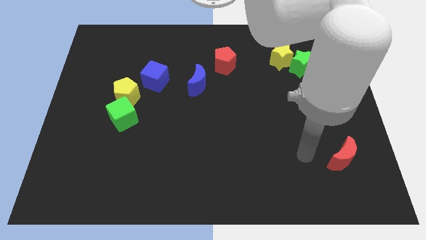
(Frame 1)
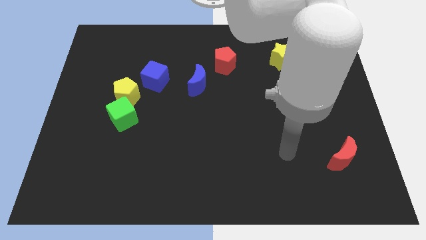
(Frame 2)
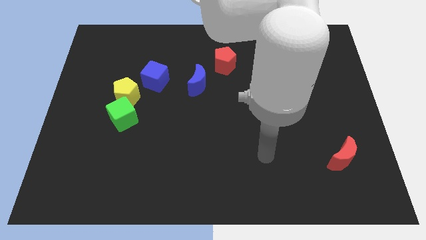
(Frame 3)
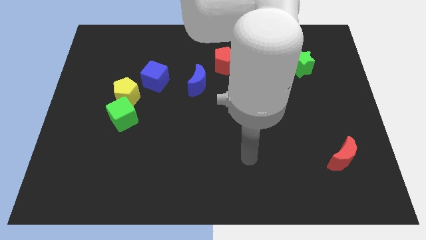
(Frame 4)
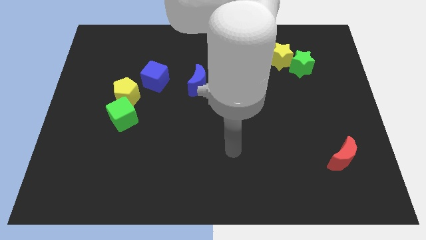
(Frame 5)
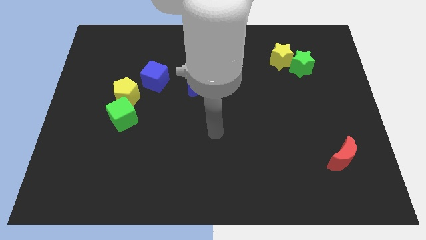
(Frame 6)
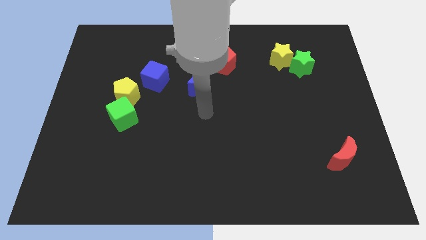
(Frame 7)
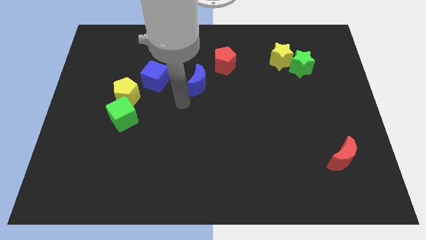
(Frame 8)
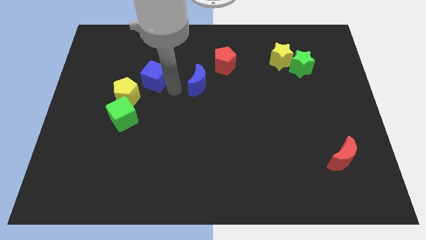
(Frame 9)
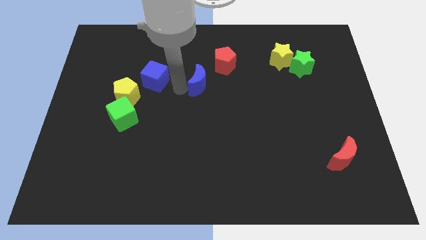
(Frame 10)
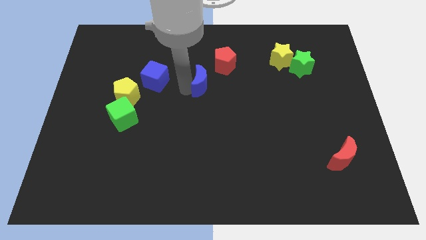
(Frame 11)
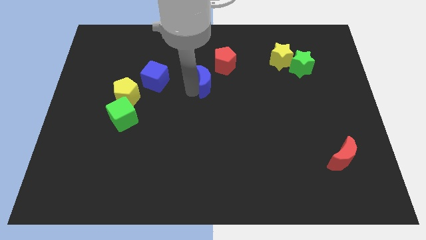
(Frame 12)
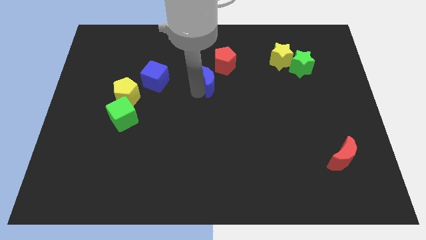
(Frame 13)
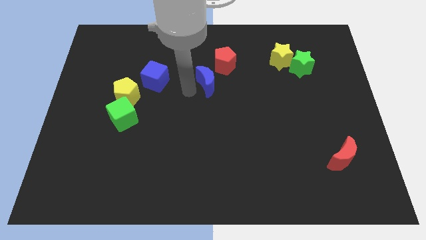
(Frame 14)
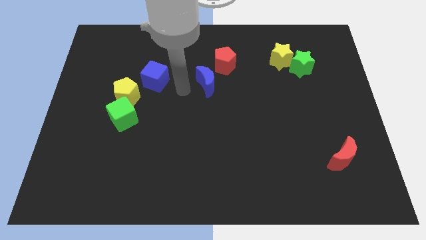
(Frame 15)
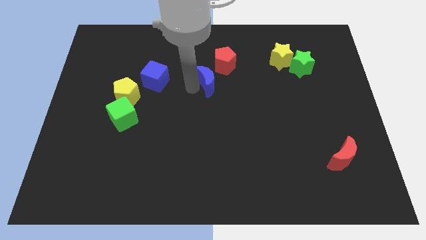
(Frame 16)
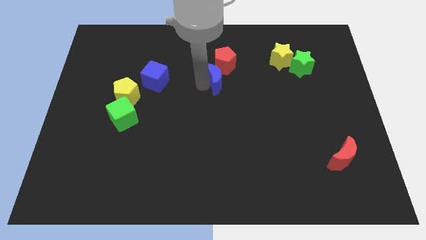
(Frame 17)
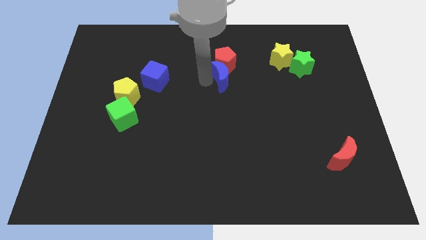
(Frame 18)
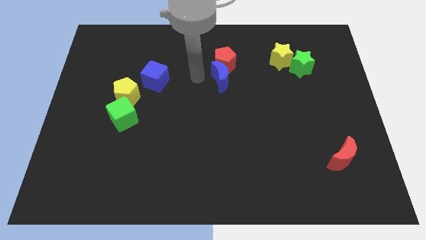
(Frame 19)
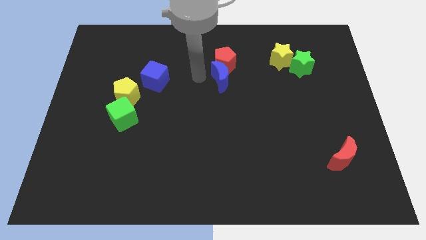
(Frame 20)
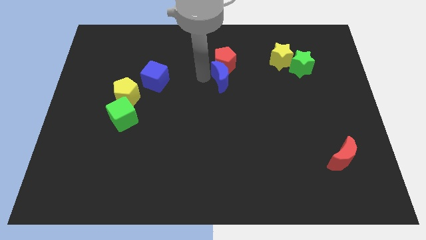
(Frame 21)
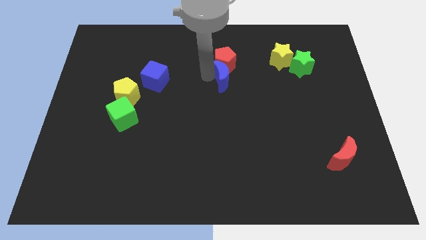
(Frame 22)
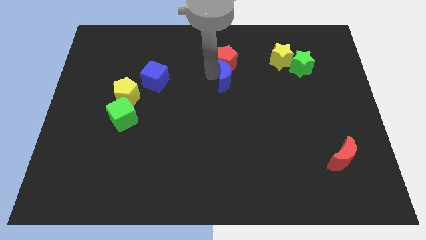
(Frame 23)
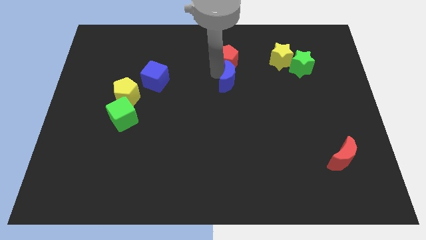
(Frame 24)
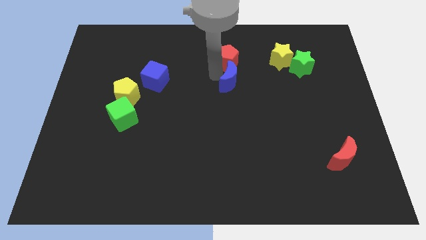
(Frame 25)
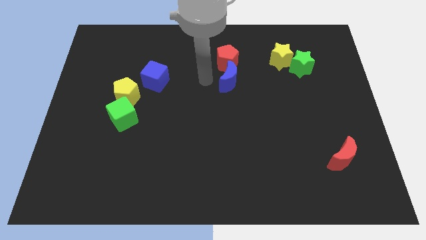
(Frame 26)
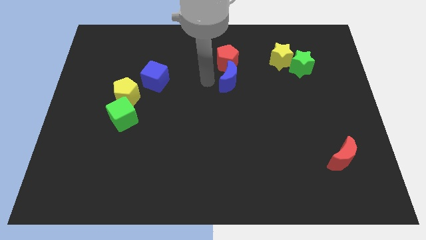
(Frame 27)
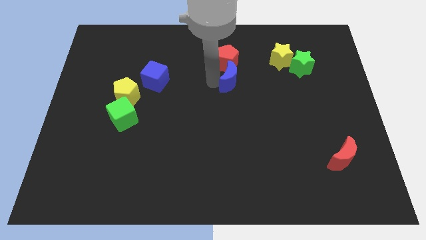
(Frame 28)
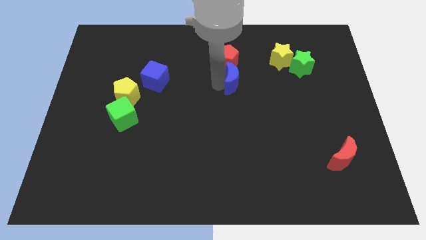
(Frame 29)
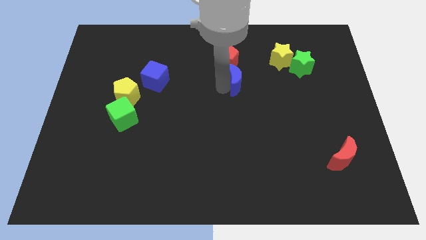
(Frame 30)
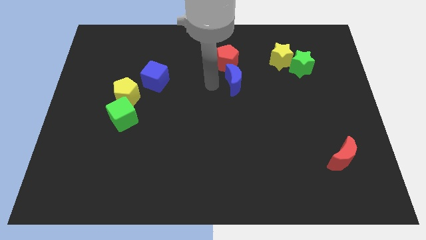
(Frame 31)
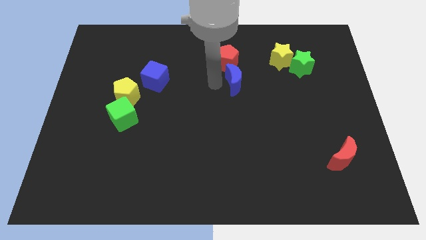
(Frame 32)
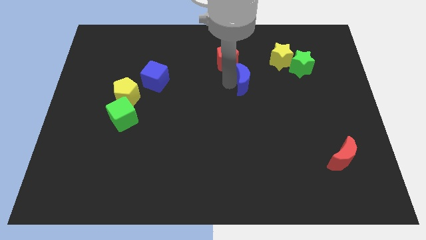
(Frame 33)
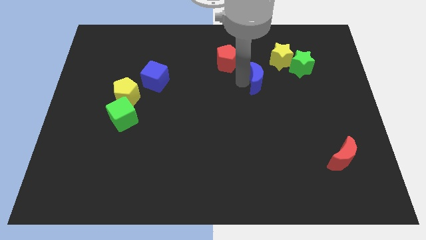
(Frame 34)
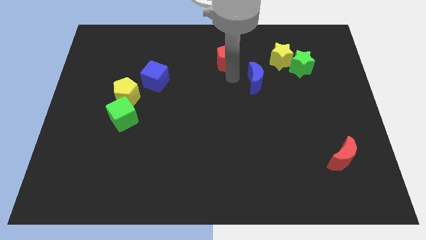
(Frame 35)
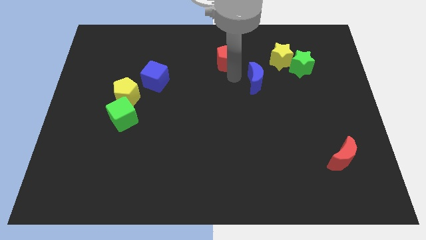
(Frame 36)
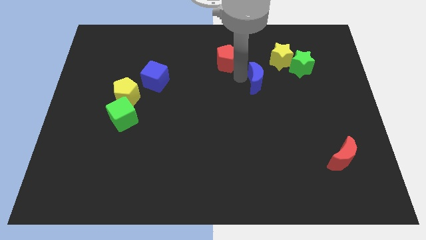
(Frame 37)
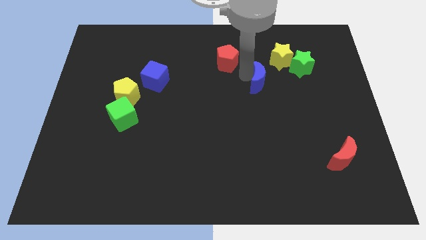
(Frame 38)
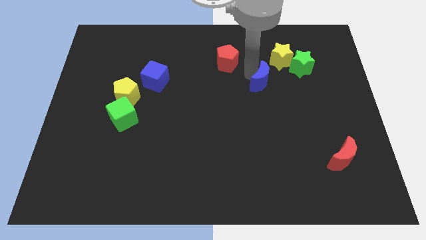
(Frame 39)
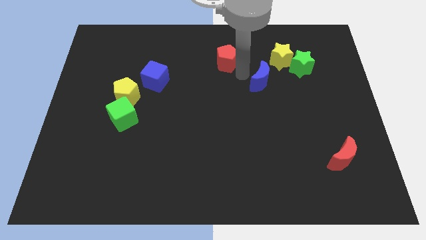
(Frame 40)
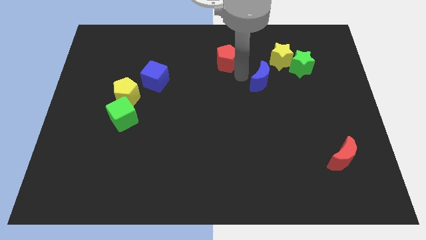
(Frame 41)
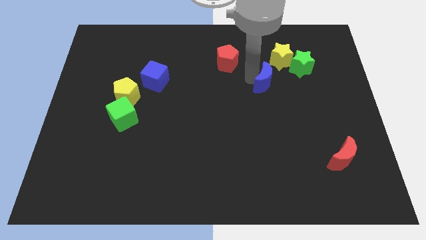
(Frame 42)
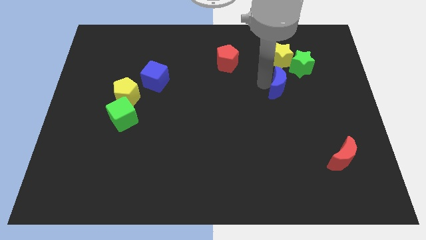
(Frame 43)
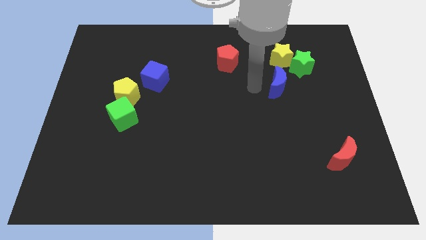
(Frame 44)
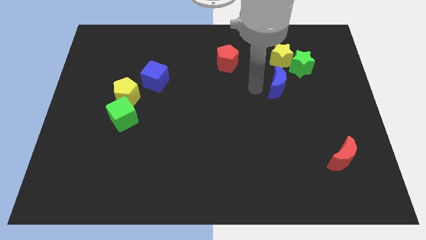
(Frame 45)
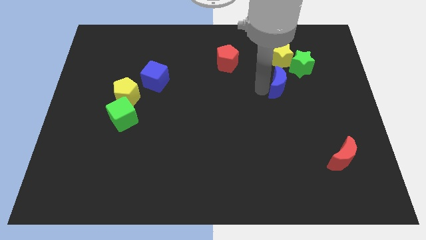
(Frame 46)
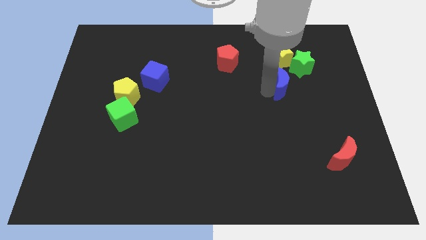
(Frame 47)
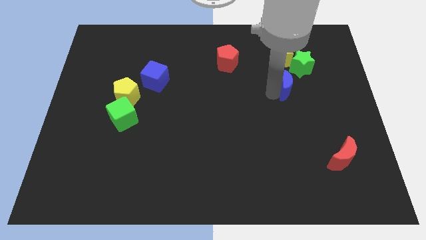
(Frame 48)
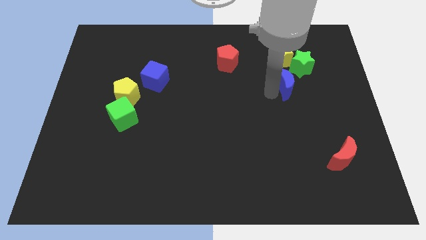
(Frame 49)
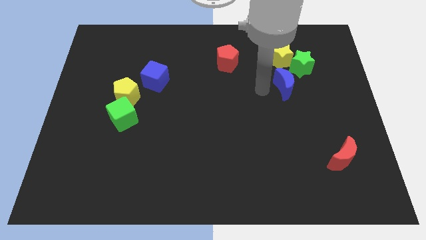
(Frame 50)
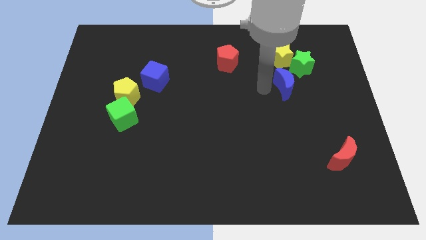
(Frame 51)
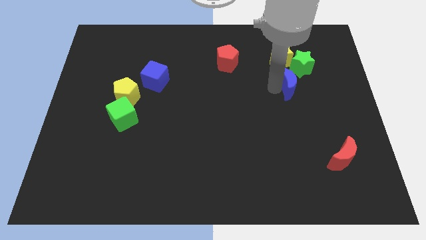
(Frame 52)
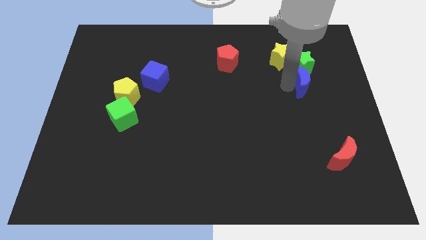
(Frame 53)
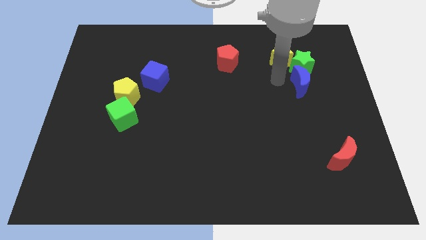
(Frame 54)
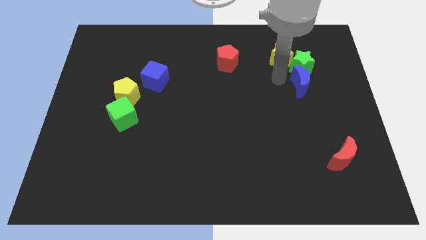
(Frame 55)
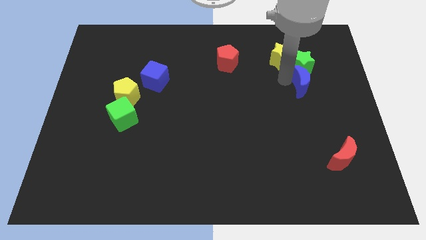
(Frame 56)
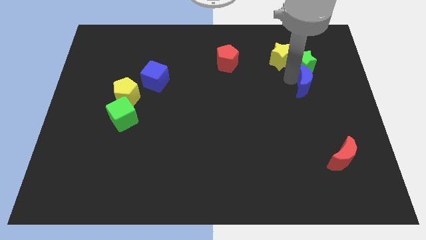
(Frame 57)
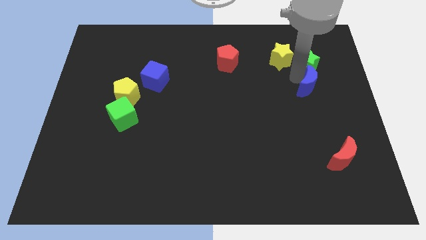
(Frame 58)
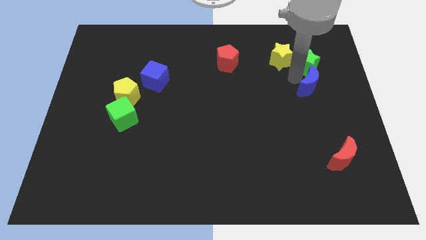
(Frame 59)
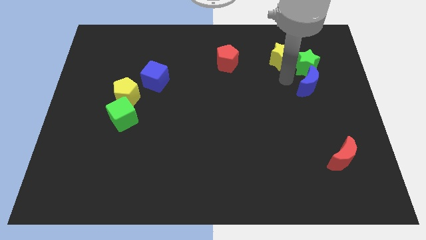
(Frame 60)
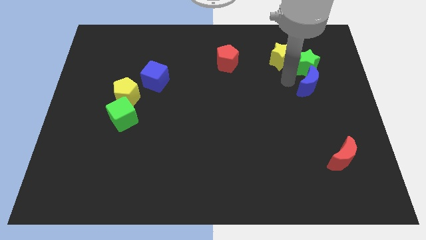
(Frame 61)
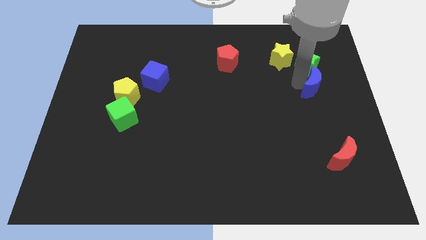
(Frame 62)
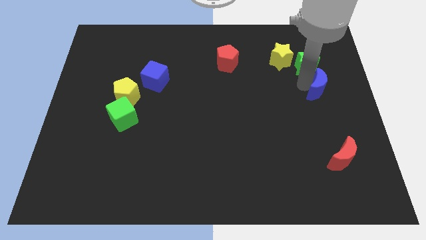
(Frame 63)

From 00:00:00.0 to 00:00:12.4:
move the blue moon to the right side of the board

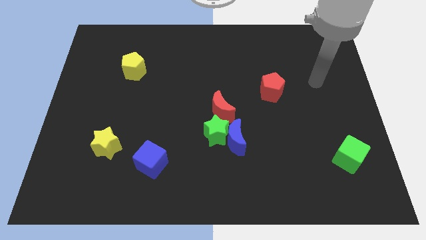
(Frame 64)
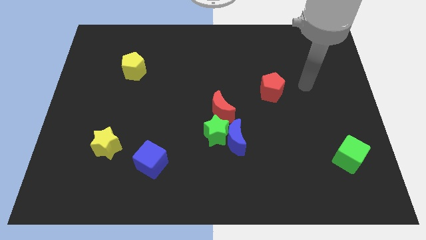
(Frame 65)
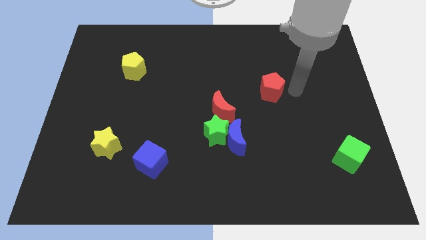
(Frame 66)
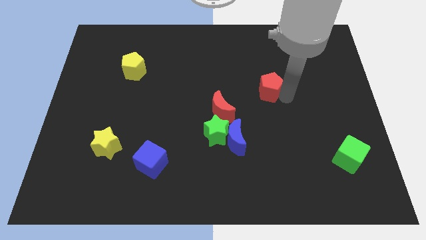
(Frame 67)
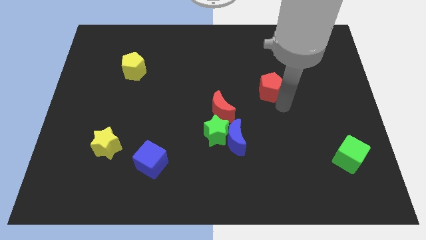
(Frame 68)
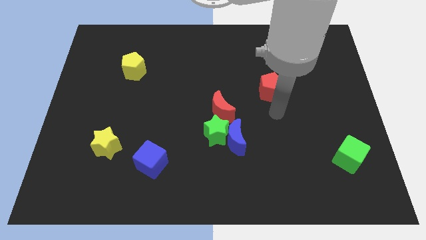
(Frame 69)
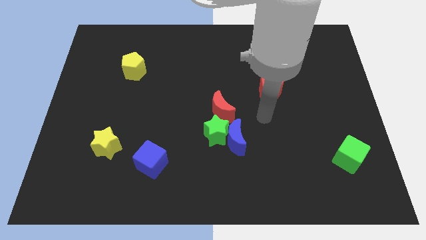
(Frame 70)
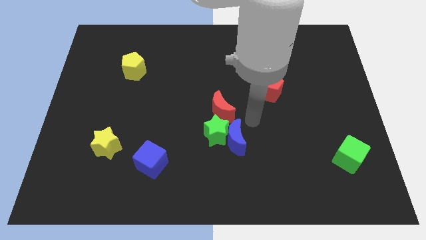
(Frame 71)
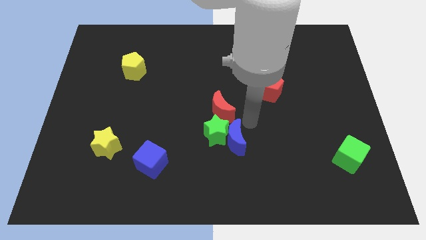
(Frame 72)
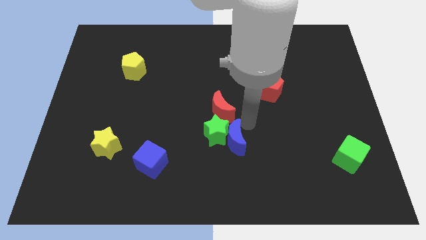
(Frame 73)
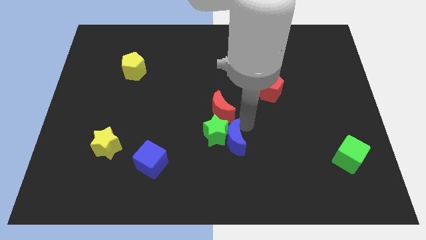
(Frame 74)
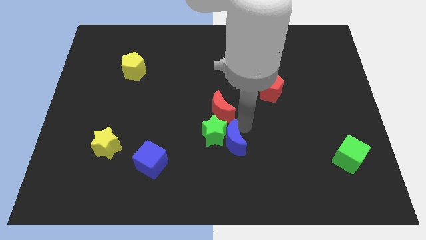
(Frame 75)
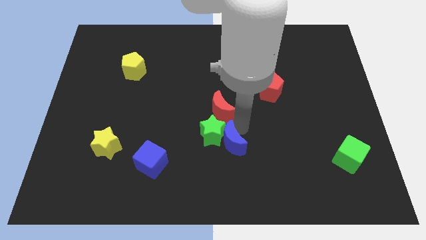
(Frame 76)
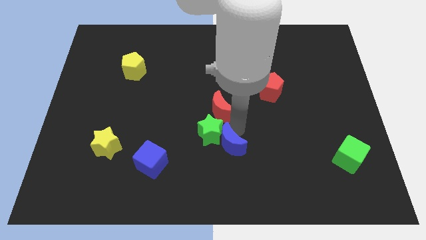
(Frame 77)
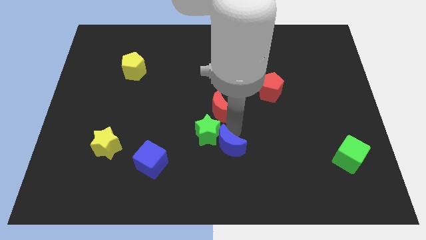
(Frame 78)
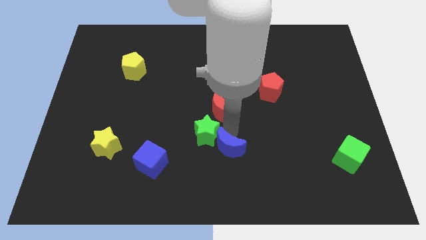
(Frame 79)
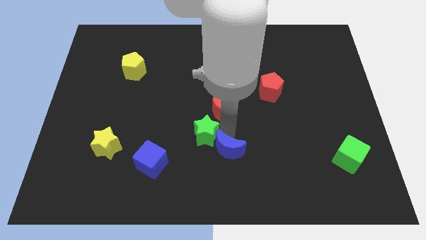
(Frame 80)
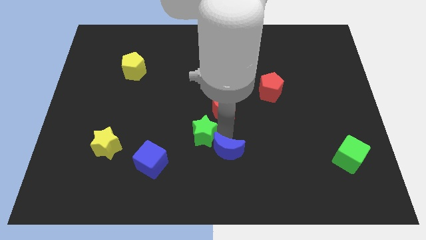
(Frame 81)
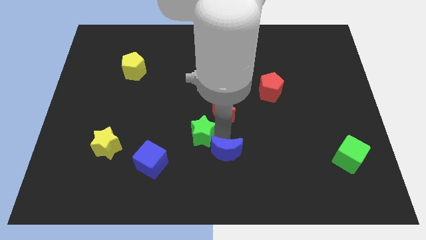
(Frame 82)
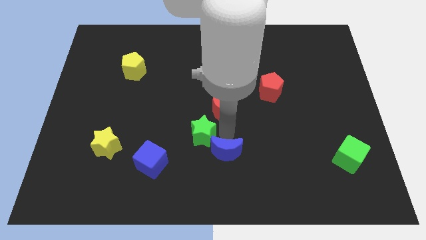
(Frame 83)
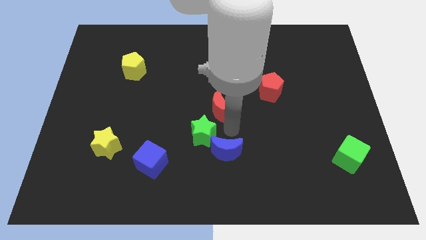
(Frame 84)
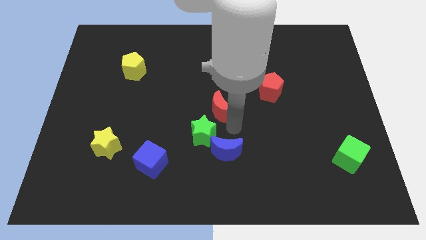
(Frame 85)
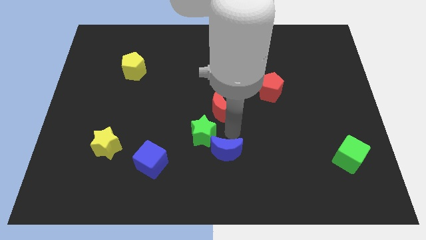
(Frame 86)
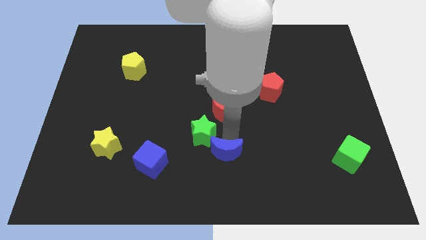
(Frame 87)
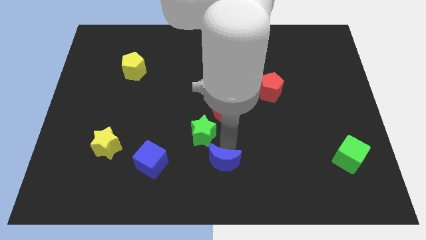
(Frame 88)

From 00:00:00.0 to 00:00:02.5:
push the blue moon to the bottom
